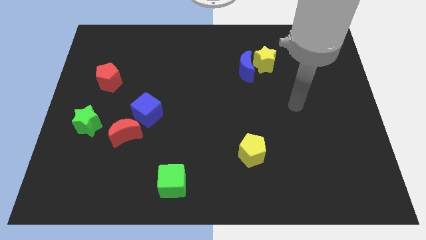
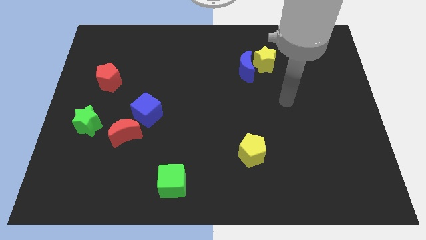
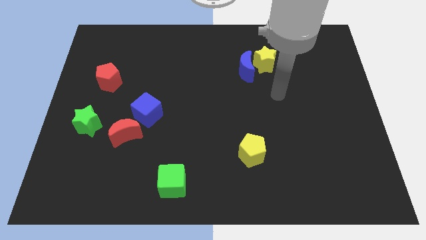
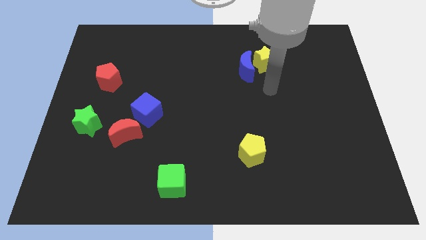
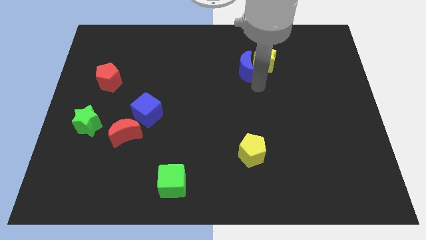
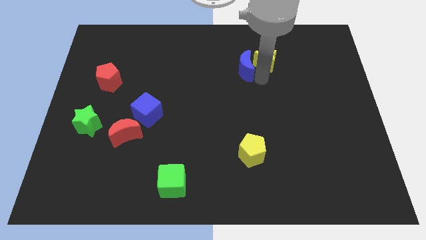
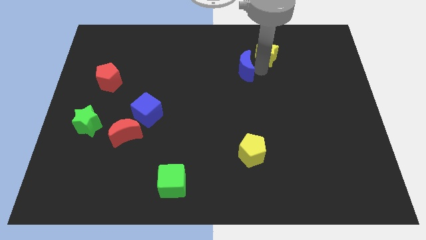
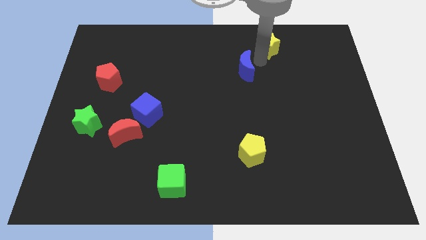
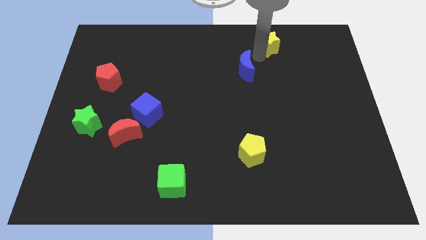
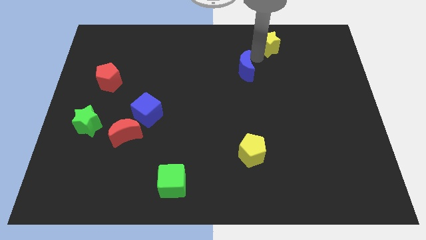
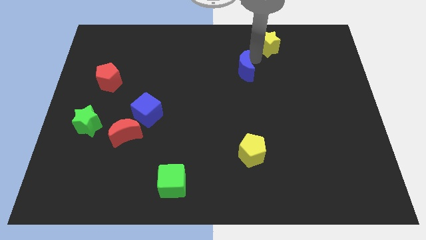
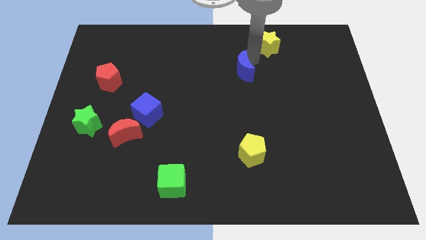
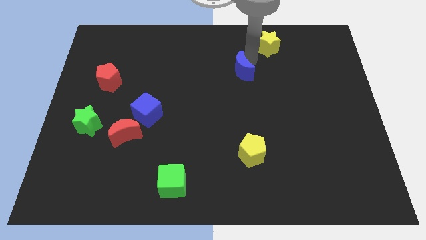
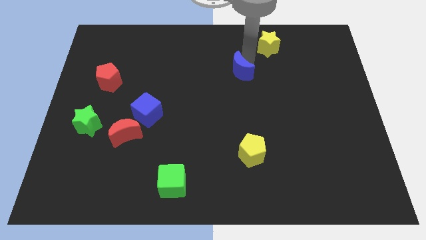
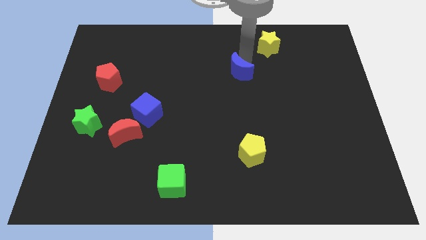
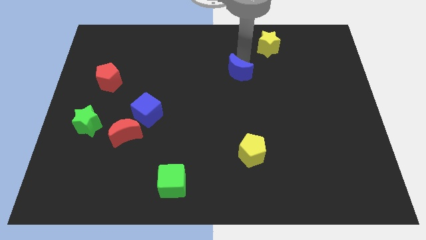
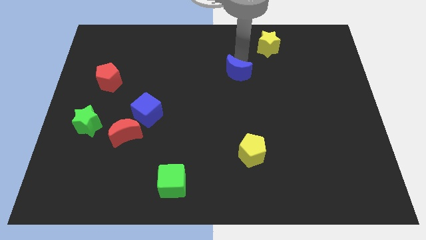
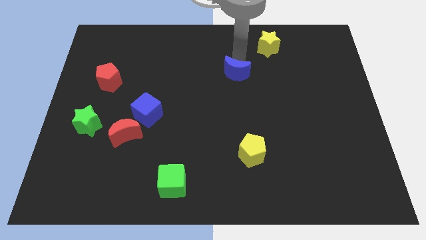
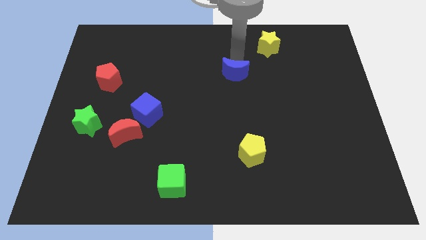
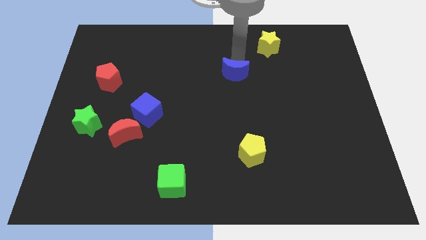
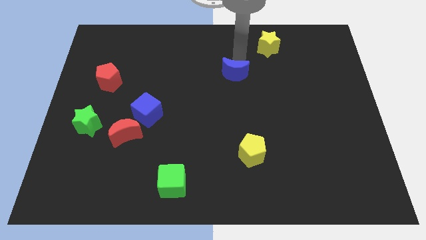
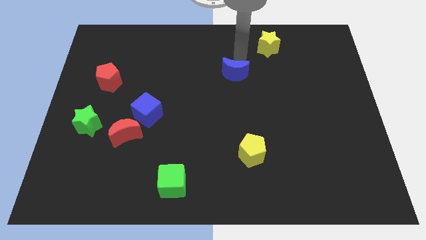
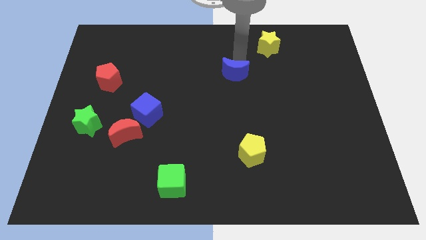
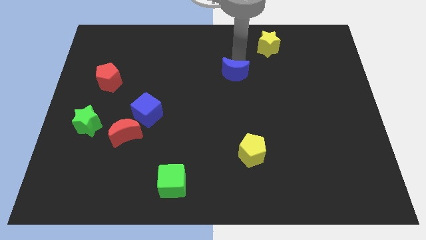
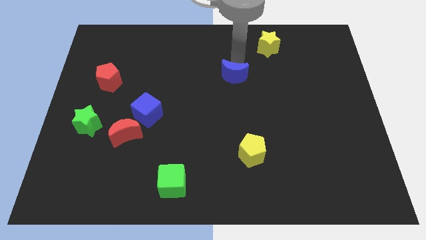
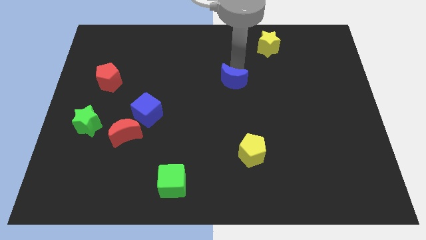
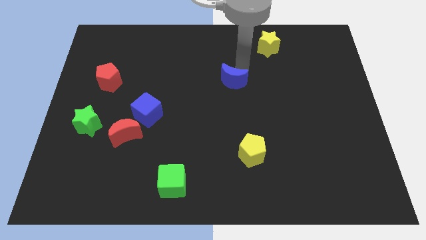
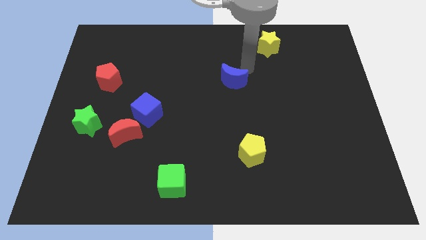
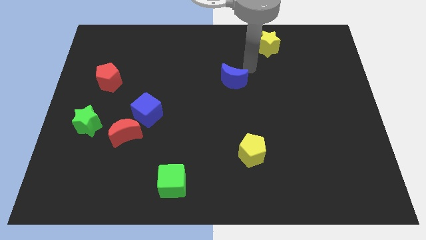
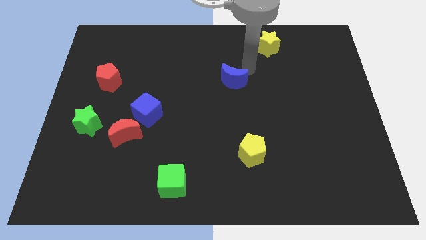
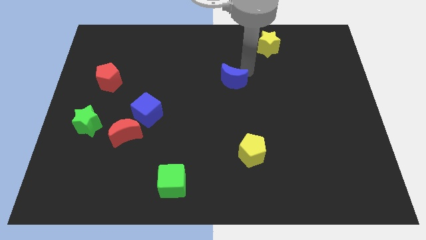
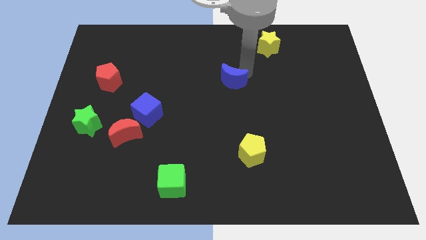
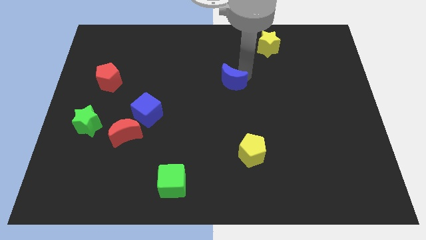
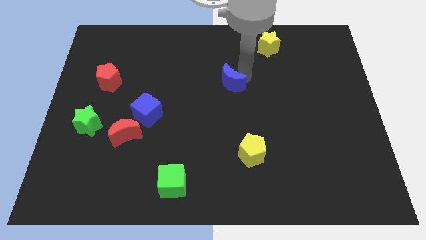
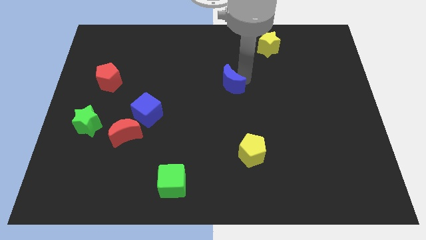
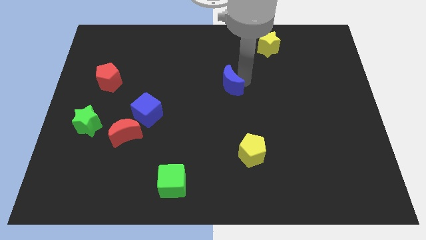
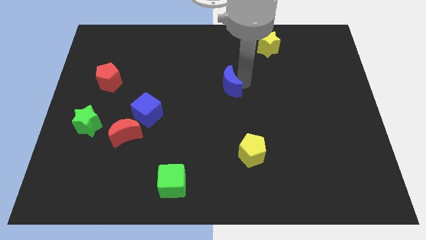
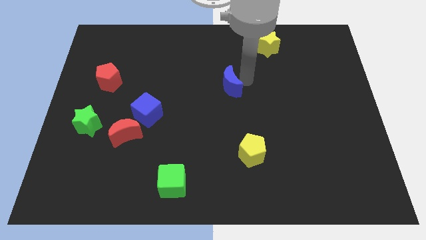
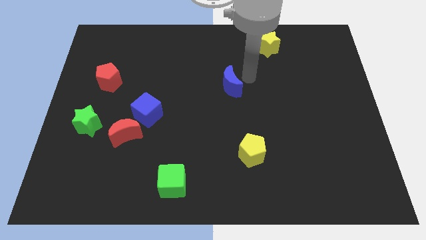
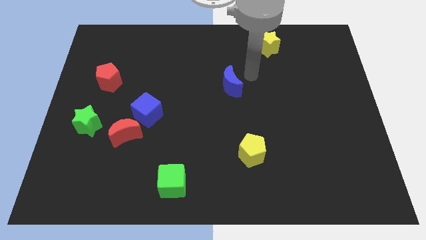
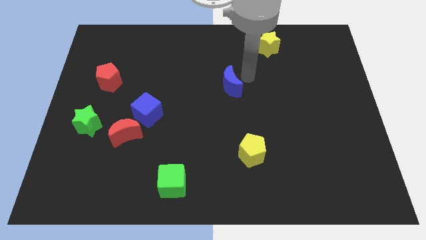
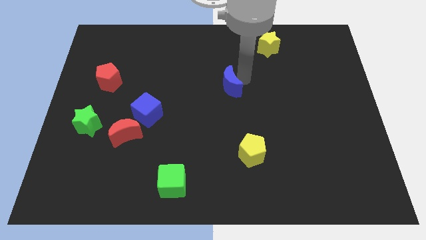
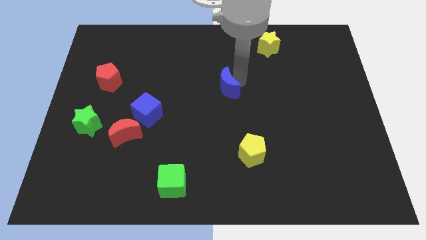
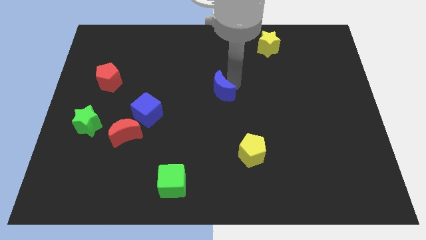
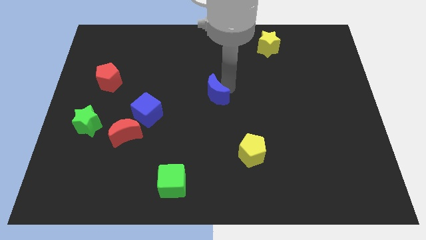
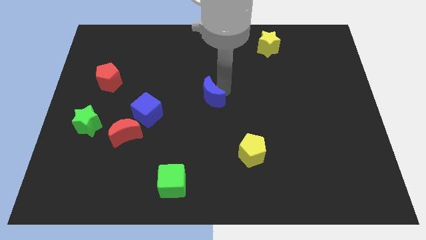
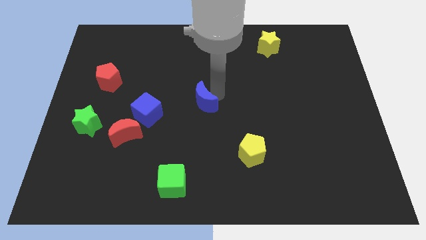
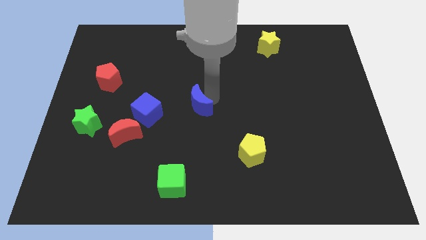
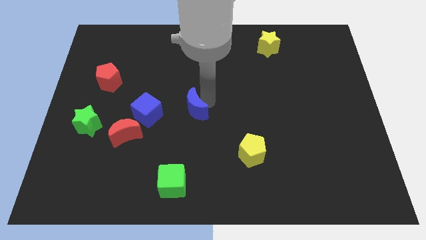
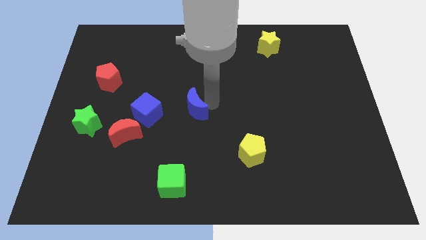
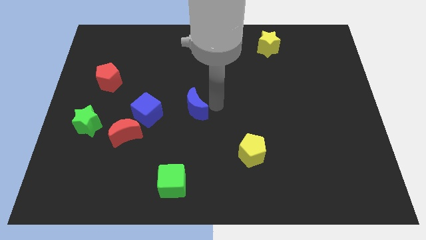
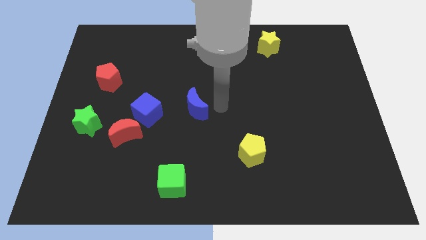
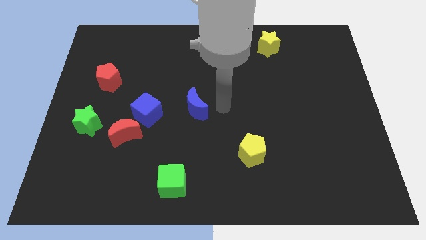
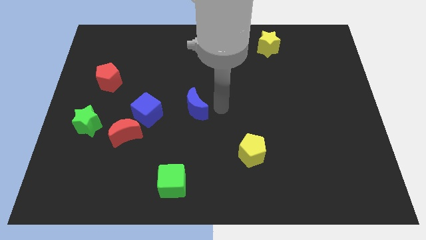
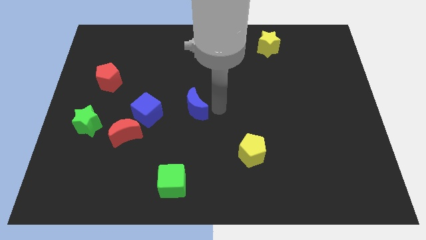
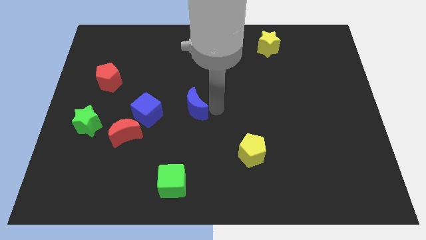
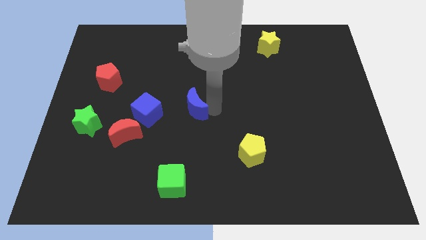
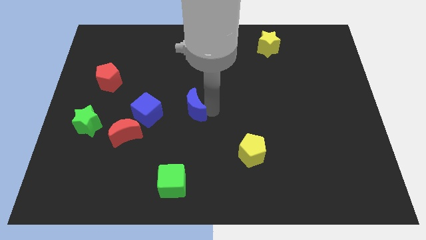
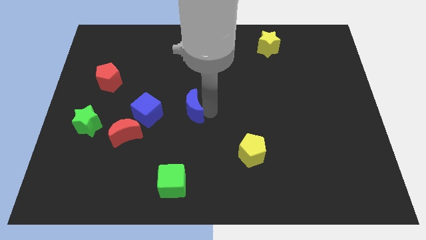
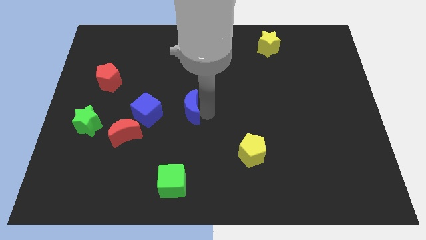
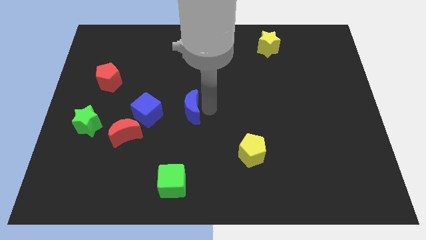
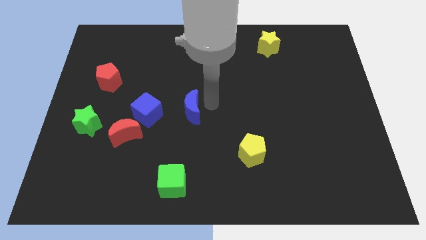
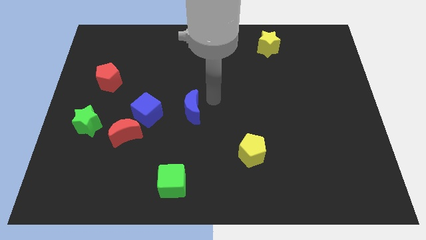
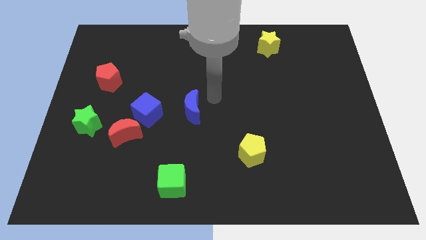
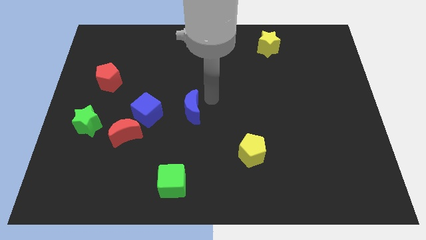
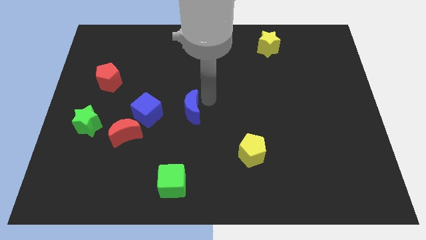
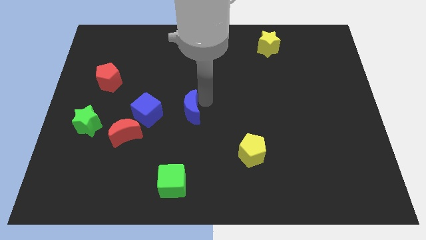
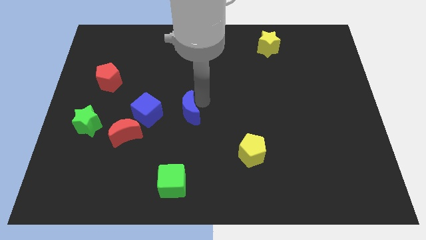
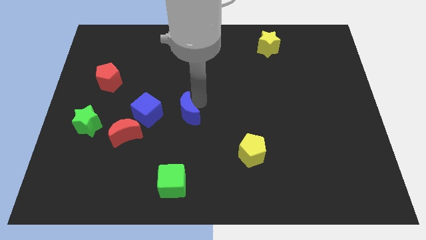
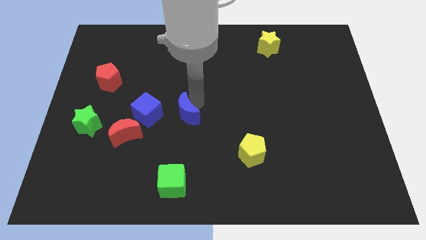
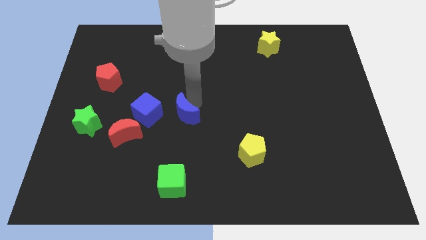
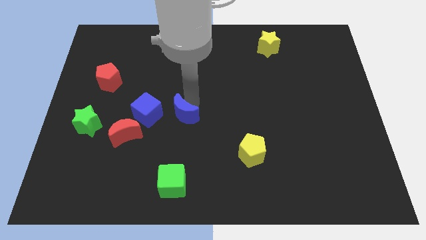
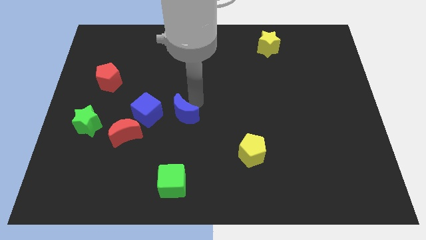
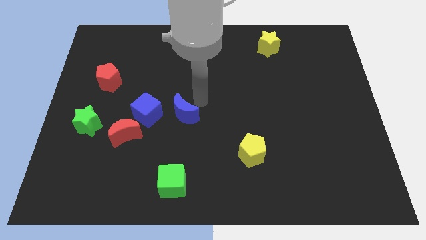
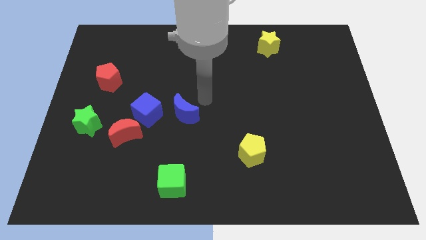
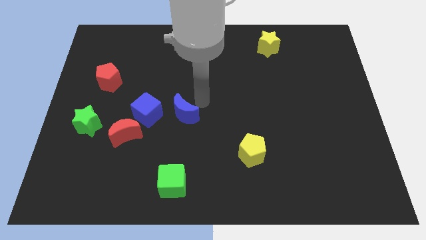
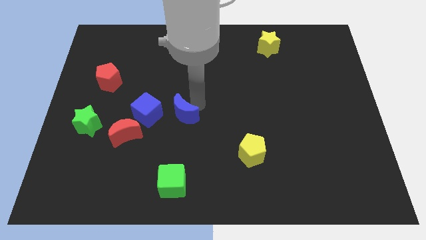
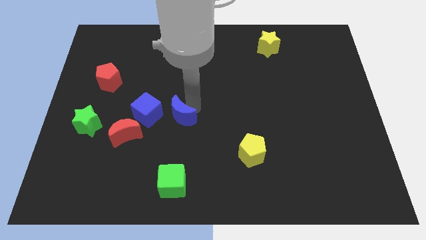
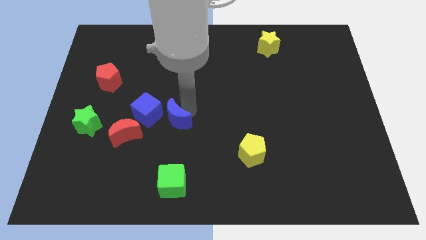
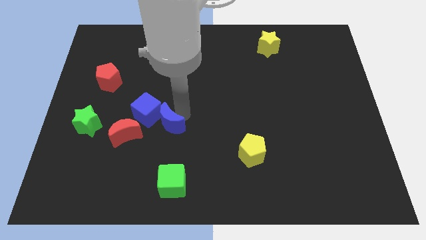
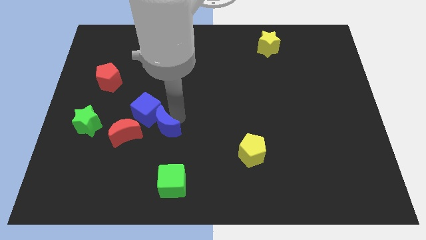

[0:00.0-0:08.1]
push the blue moon to the bottom of the blue cube
